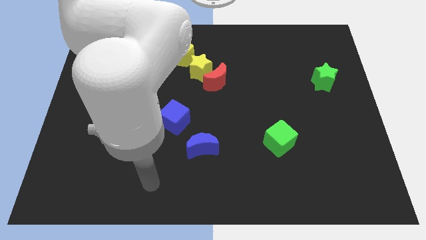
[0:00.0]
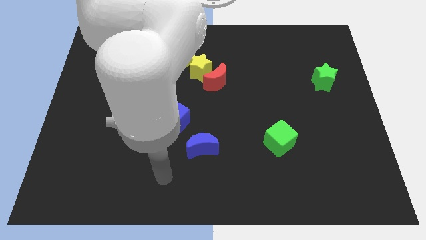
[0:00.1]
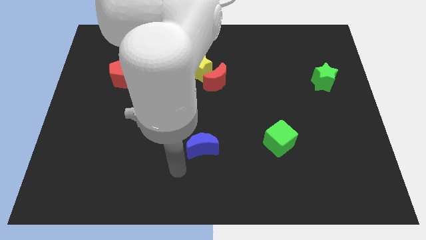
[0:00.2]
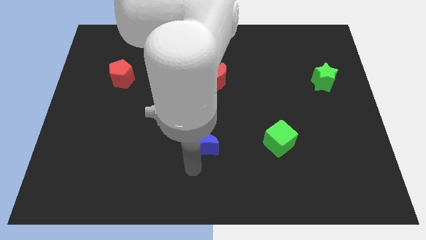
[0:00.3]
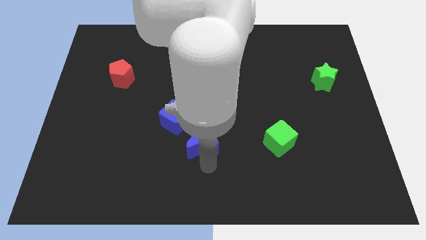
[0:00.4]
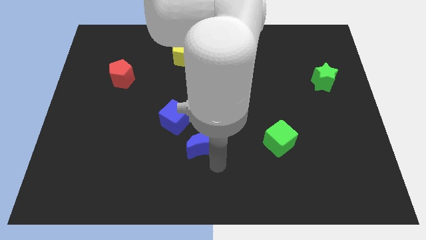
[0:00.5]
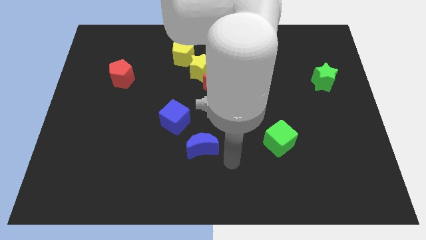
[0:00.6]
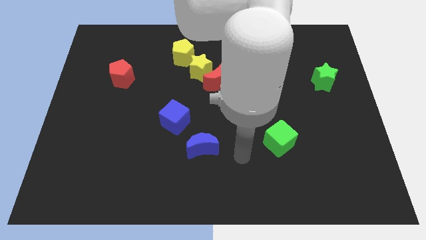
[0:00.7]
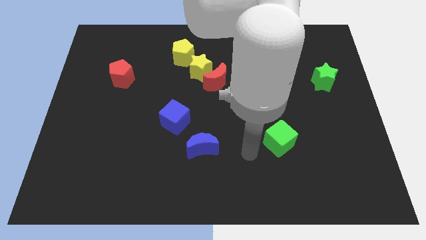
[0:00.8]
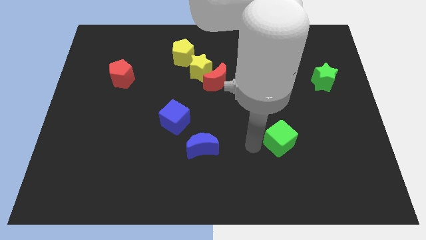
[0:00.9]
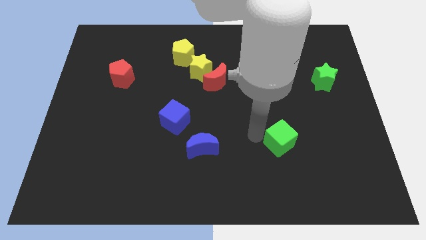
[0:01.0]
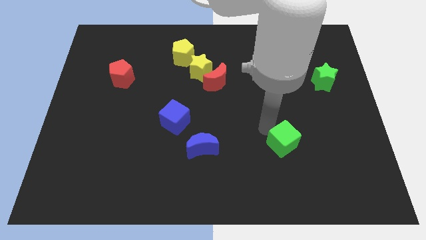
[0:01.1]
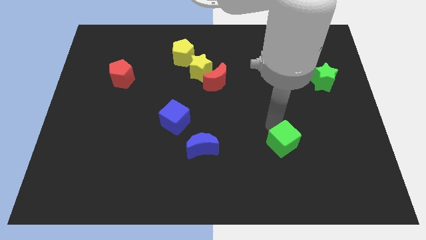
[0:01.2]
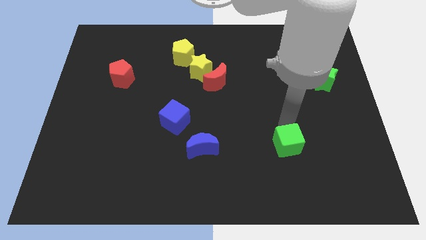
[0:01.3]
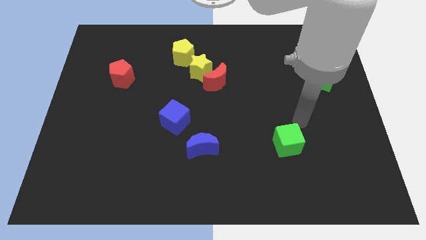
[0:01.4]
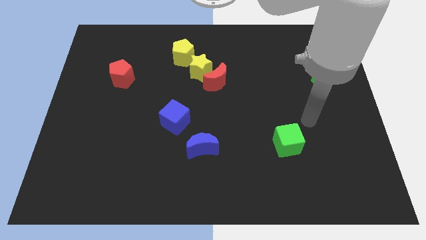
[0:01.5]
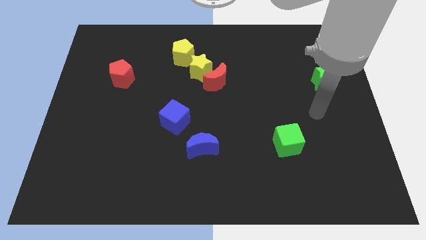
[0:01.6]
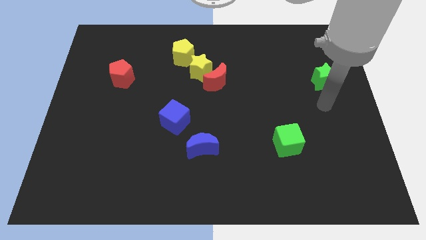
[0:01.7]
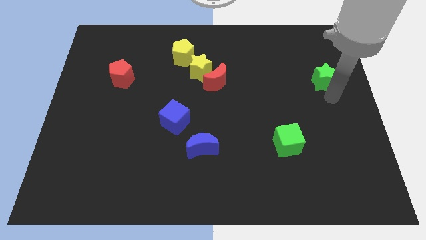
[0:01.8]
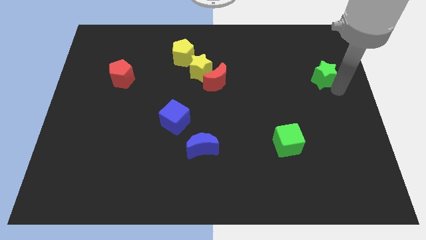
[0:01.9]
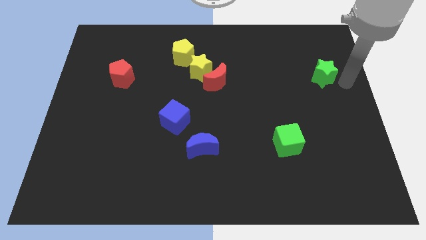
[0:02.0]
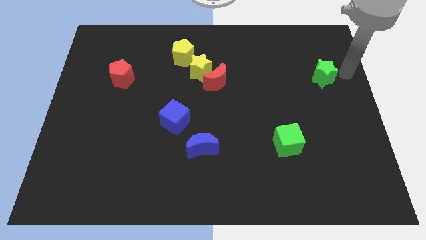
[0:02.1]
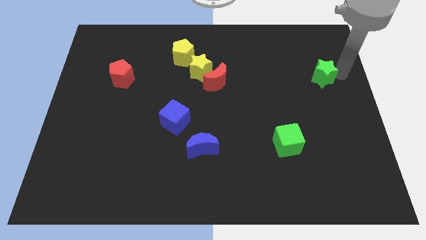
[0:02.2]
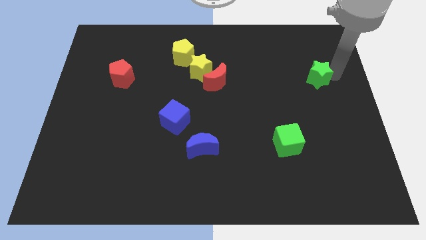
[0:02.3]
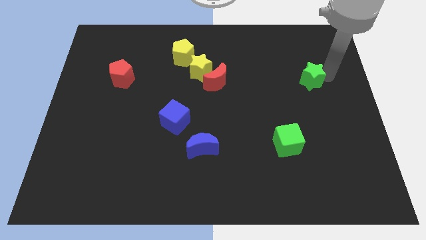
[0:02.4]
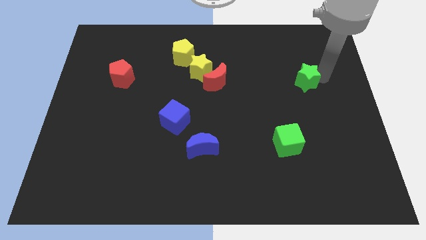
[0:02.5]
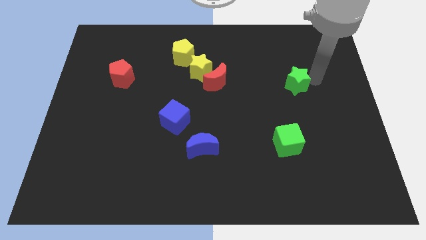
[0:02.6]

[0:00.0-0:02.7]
move the green star slightly to the left

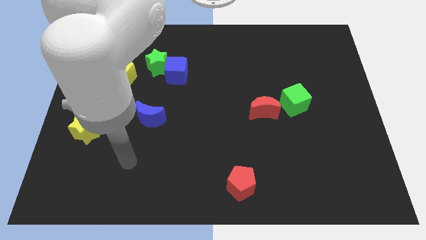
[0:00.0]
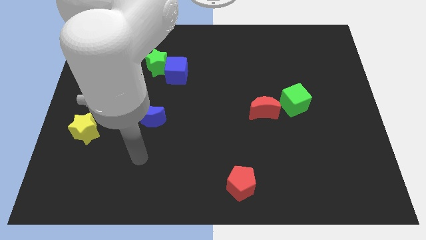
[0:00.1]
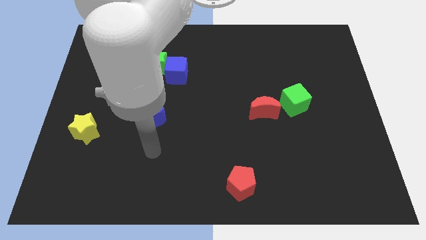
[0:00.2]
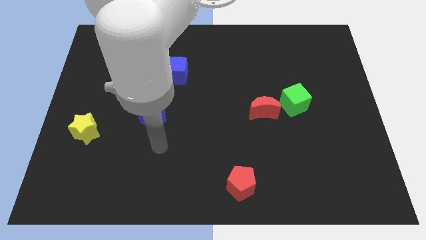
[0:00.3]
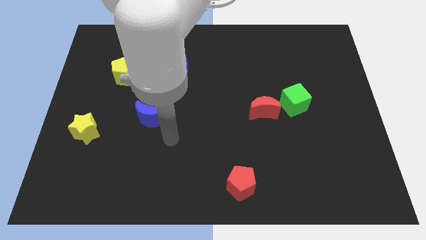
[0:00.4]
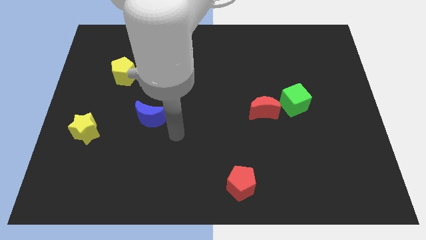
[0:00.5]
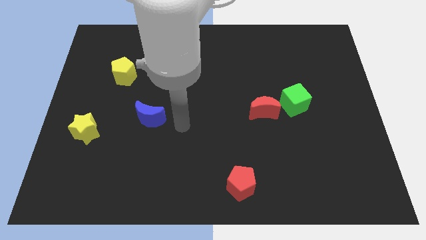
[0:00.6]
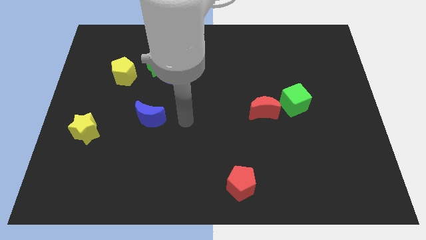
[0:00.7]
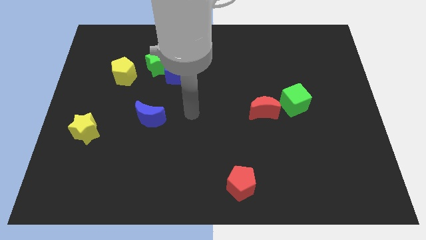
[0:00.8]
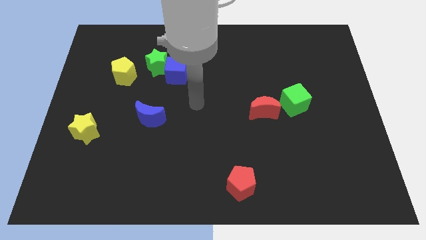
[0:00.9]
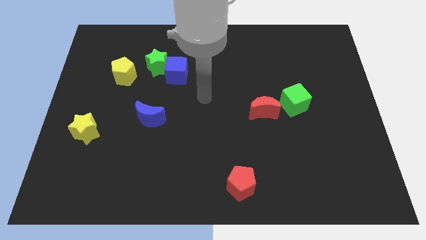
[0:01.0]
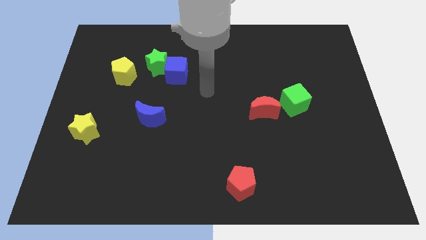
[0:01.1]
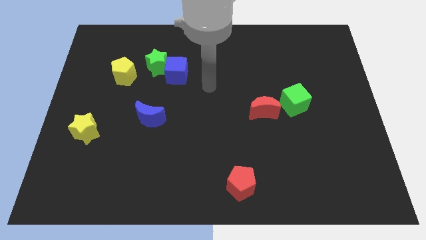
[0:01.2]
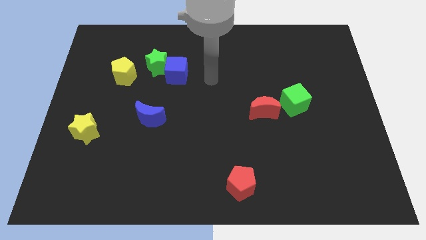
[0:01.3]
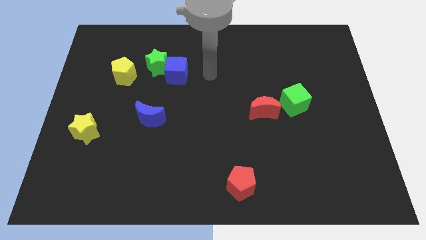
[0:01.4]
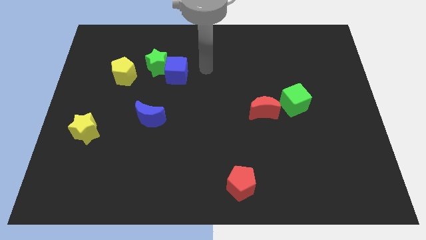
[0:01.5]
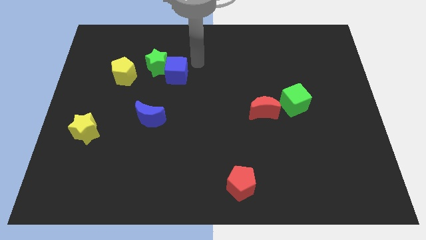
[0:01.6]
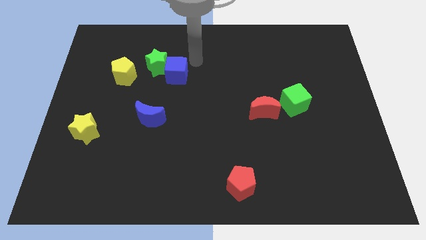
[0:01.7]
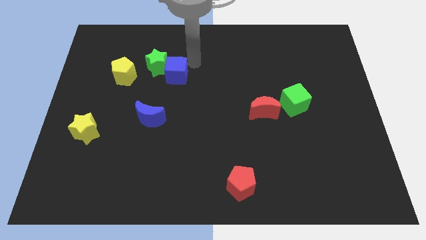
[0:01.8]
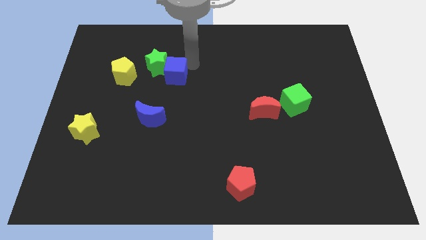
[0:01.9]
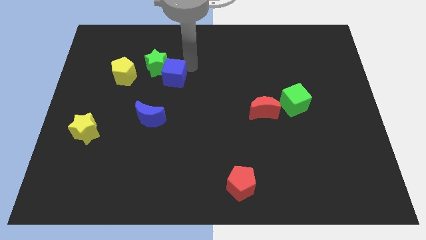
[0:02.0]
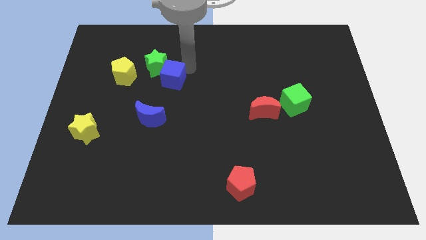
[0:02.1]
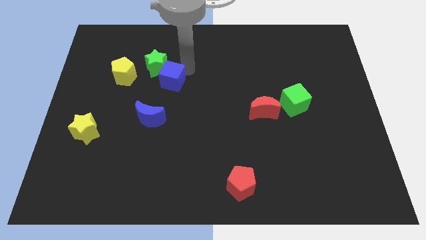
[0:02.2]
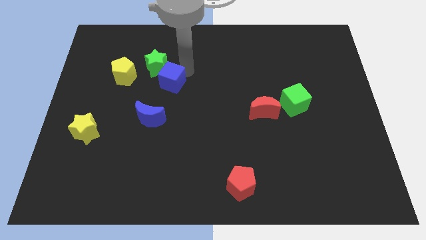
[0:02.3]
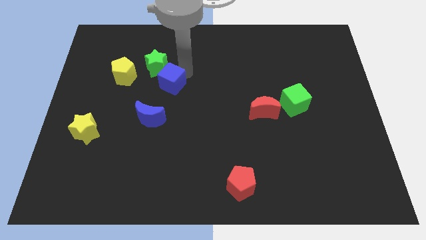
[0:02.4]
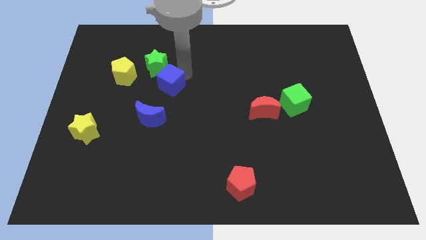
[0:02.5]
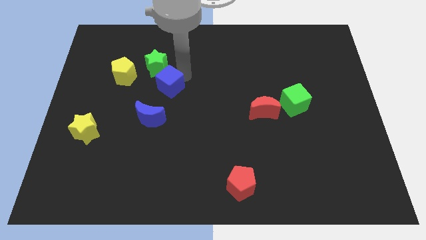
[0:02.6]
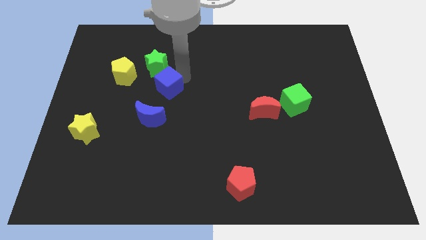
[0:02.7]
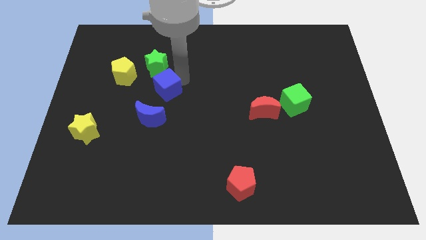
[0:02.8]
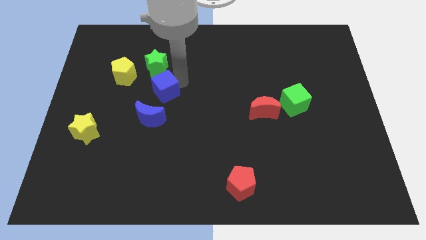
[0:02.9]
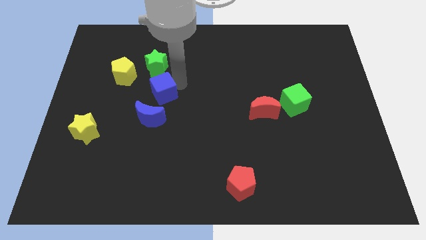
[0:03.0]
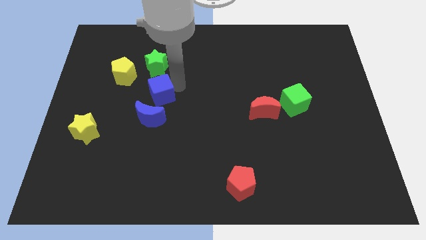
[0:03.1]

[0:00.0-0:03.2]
push the blue cube somewhat downwards and to the left

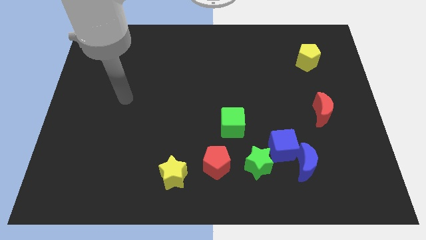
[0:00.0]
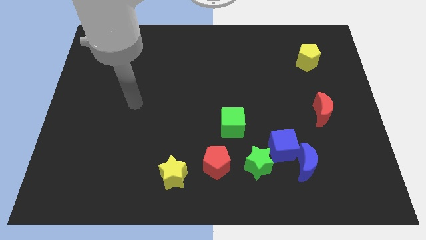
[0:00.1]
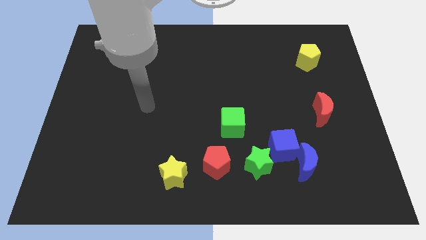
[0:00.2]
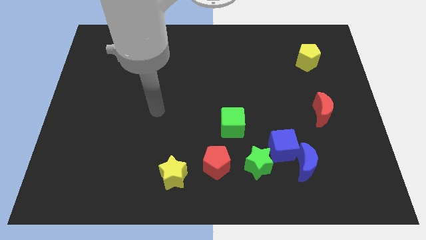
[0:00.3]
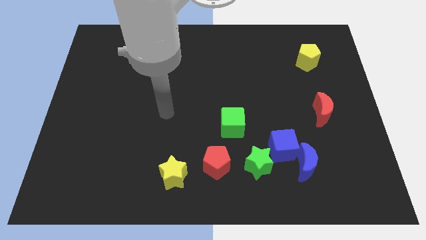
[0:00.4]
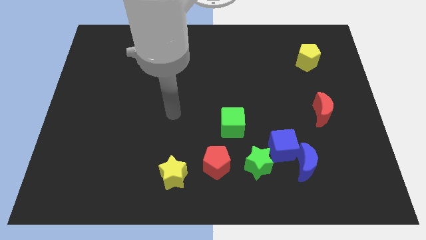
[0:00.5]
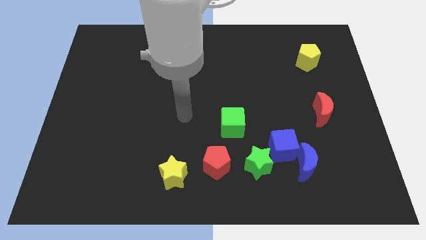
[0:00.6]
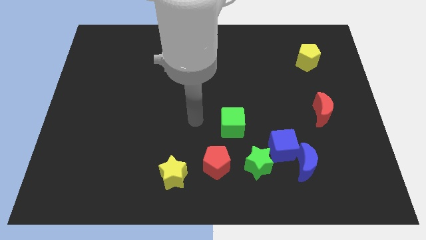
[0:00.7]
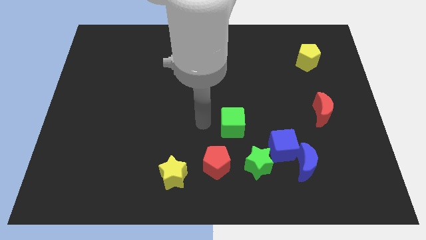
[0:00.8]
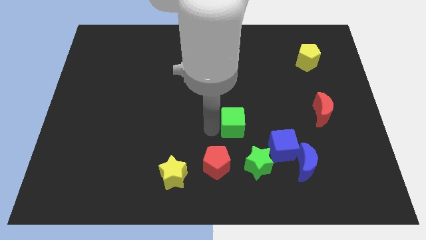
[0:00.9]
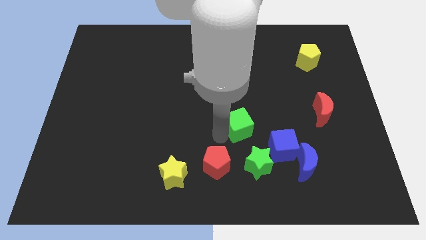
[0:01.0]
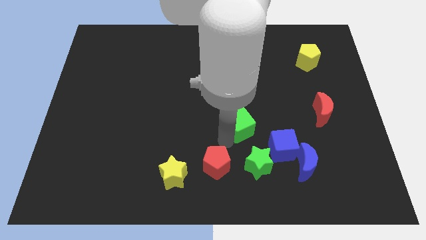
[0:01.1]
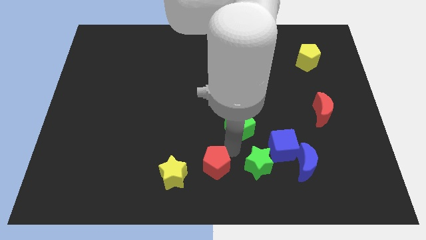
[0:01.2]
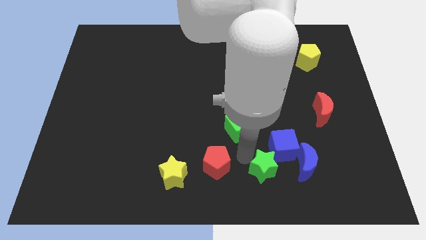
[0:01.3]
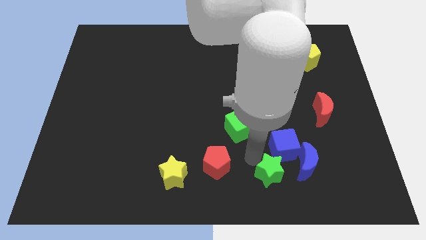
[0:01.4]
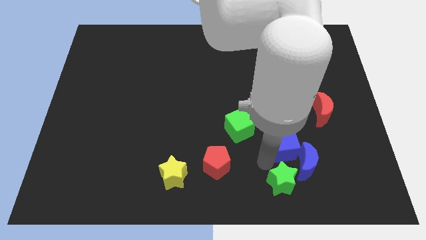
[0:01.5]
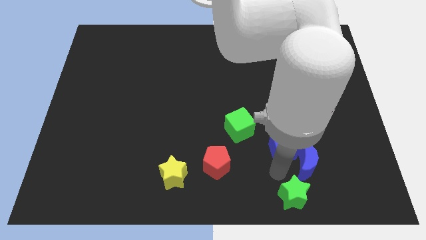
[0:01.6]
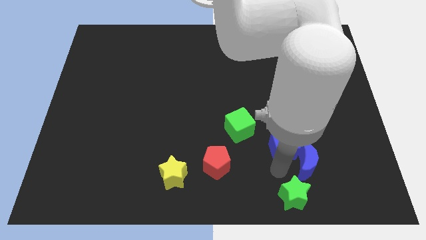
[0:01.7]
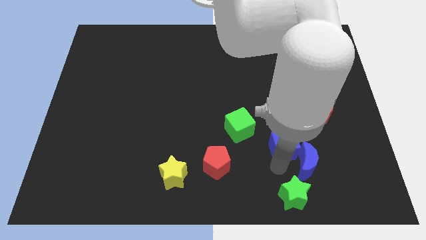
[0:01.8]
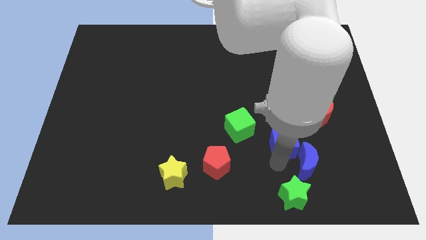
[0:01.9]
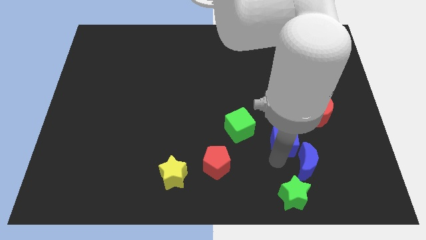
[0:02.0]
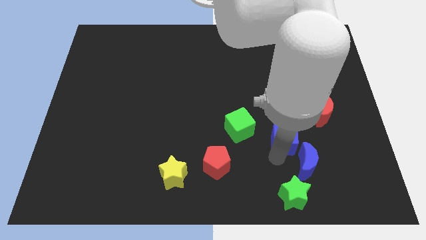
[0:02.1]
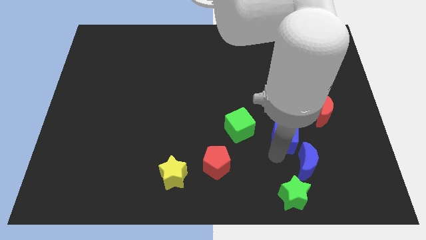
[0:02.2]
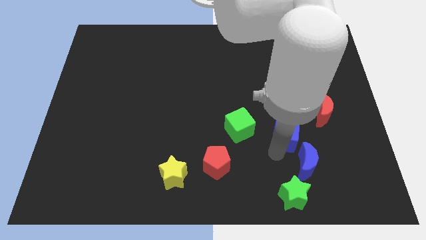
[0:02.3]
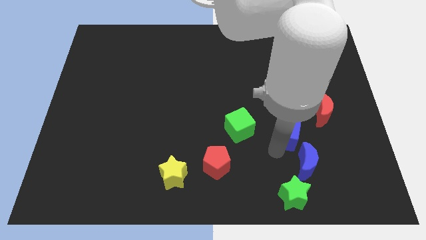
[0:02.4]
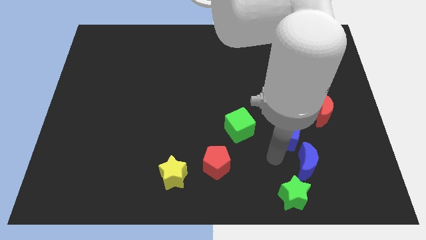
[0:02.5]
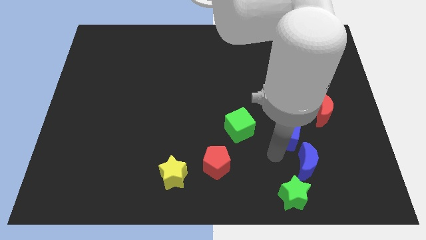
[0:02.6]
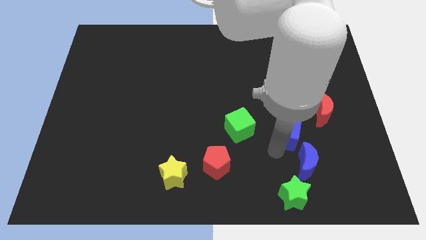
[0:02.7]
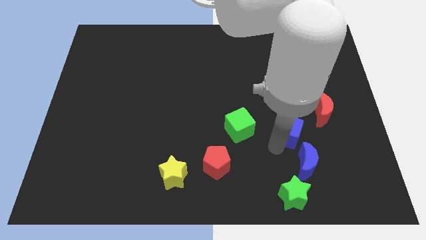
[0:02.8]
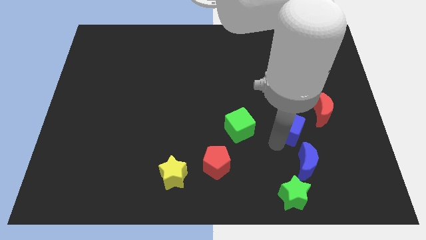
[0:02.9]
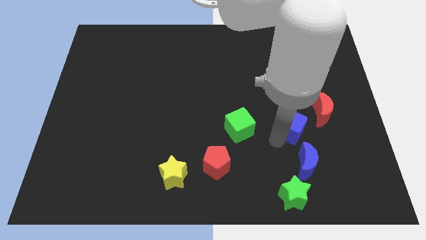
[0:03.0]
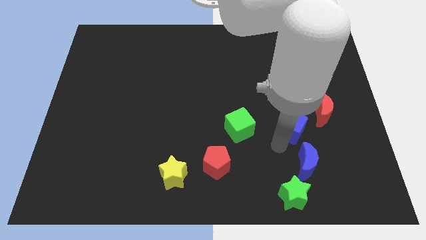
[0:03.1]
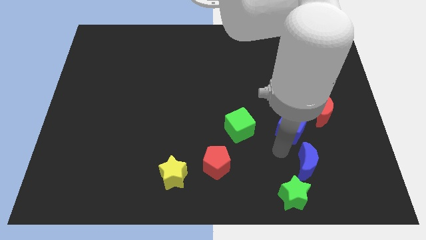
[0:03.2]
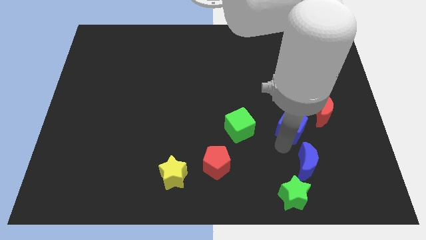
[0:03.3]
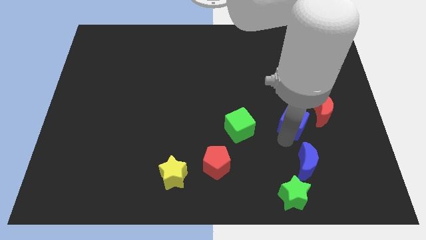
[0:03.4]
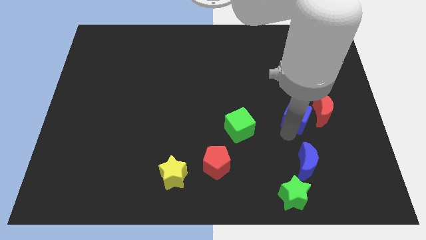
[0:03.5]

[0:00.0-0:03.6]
slide the blue cube up and then to the right a little
